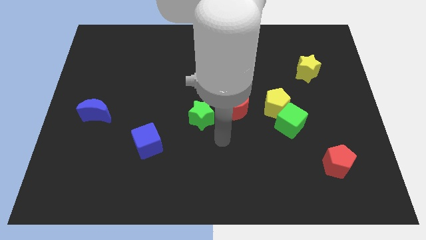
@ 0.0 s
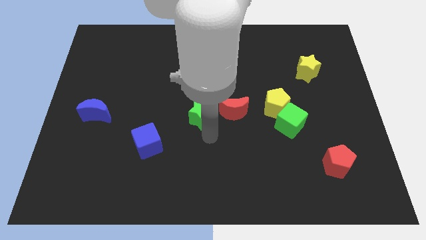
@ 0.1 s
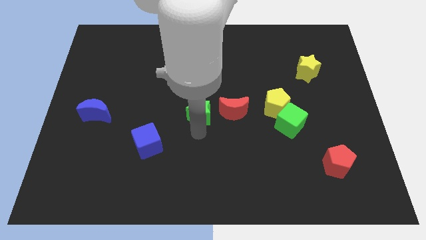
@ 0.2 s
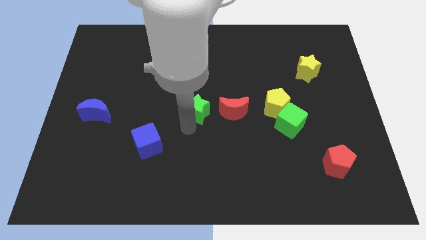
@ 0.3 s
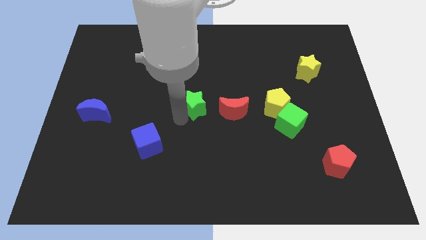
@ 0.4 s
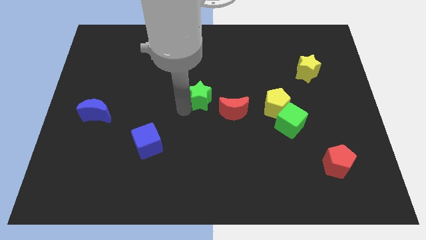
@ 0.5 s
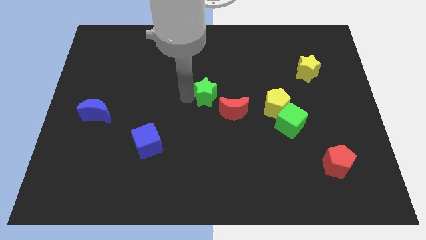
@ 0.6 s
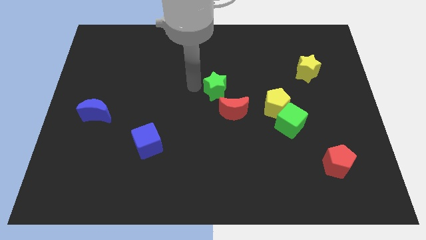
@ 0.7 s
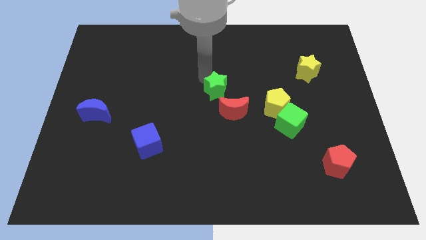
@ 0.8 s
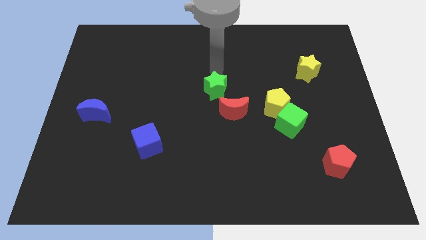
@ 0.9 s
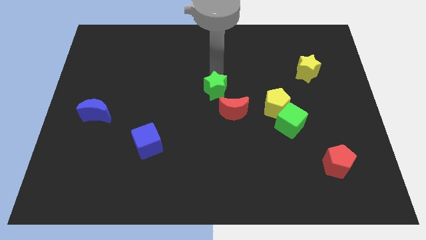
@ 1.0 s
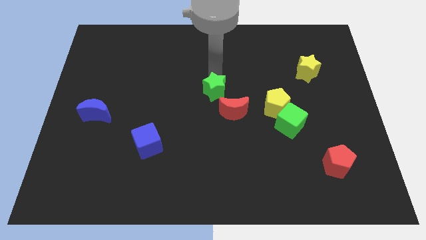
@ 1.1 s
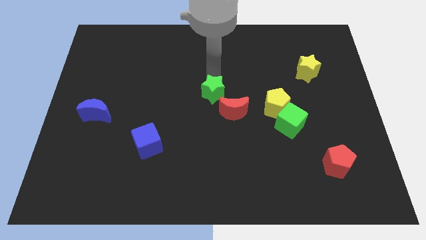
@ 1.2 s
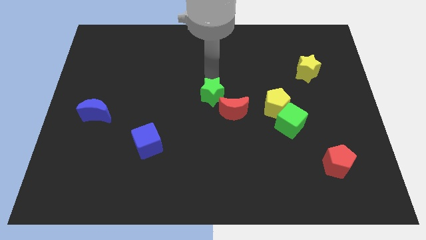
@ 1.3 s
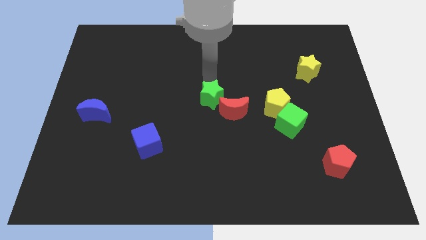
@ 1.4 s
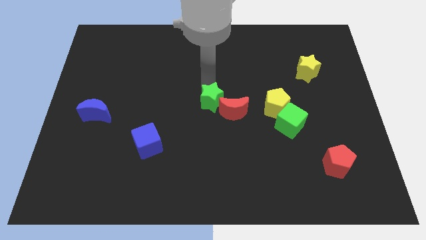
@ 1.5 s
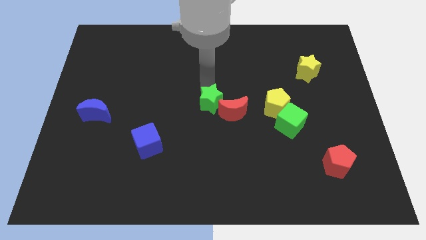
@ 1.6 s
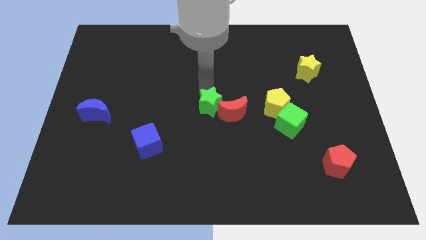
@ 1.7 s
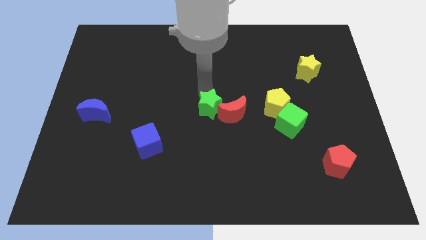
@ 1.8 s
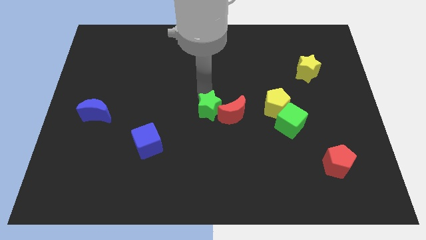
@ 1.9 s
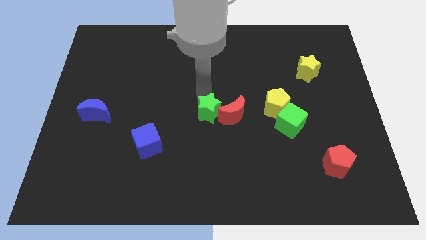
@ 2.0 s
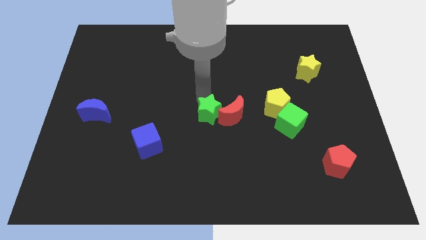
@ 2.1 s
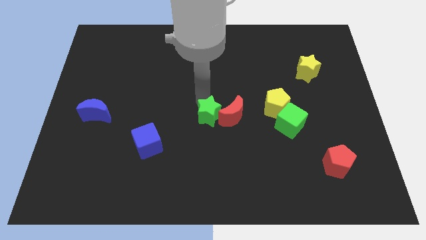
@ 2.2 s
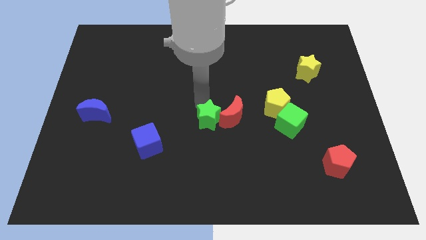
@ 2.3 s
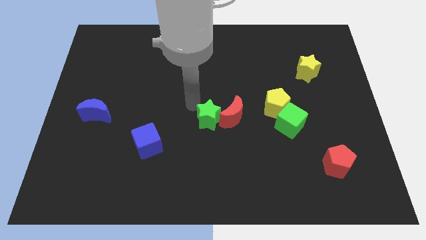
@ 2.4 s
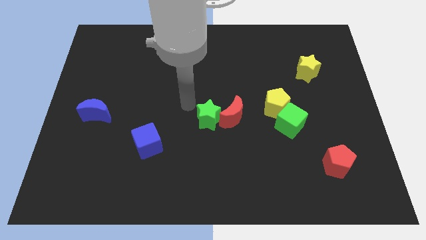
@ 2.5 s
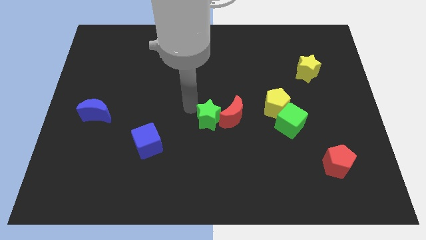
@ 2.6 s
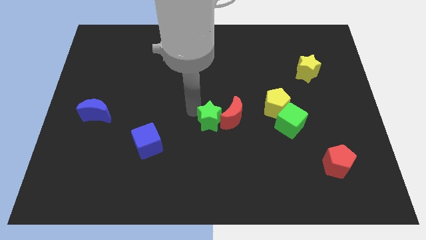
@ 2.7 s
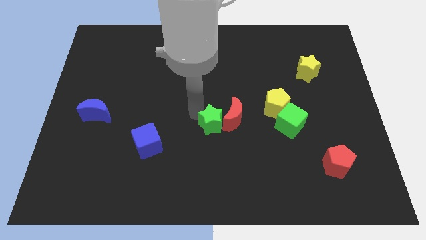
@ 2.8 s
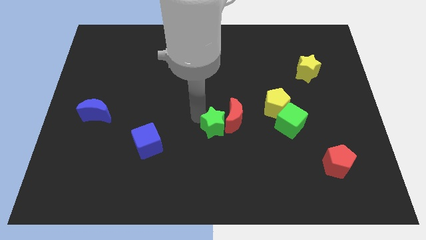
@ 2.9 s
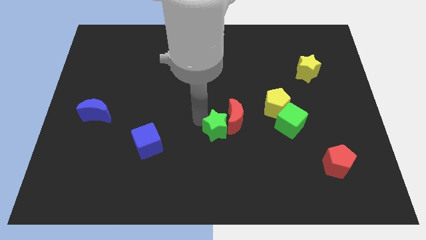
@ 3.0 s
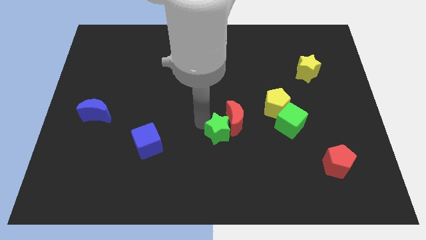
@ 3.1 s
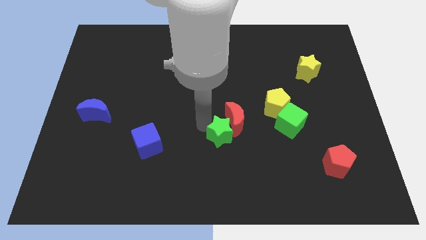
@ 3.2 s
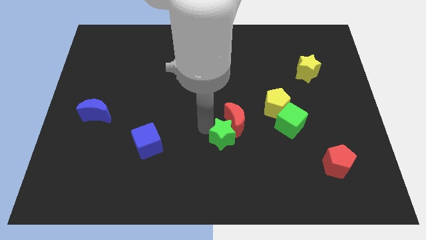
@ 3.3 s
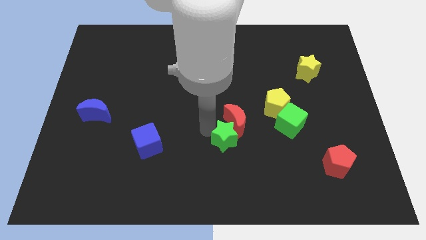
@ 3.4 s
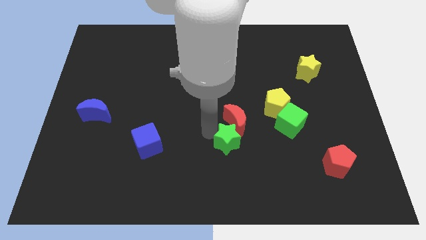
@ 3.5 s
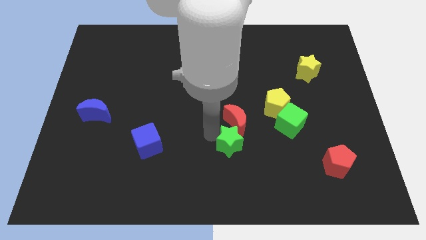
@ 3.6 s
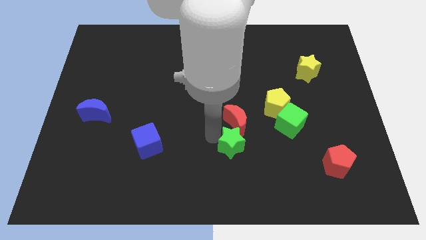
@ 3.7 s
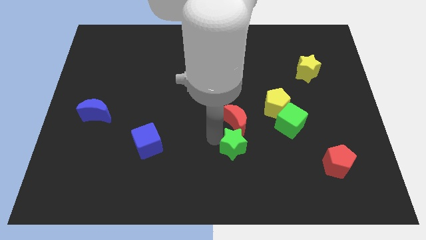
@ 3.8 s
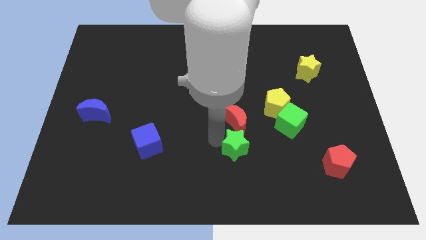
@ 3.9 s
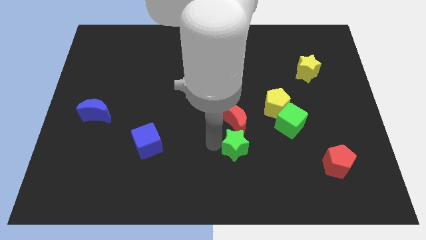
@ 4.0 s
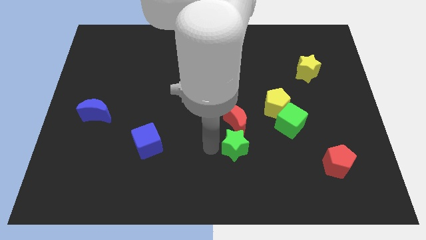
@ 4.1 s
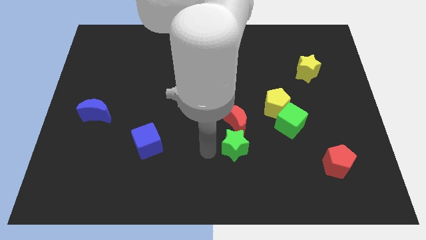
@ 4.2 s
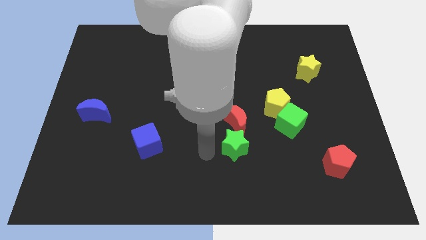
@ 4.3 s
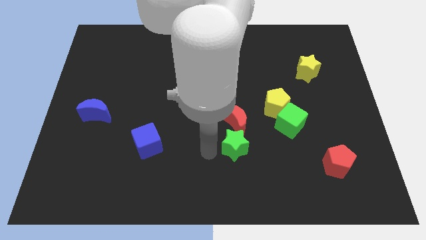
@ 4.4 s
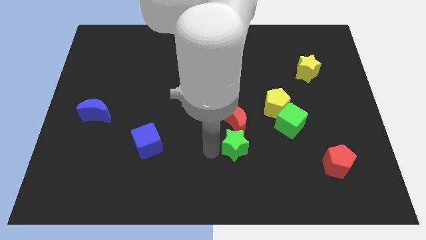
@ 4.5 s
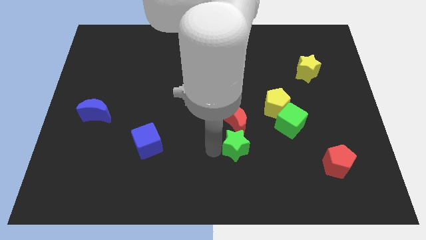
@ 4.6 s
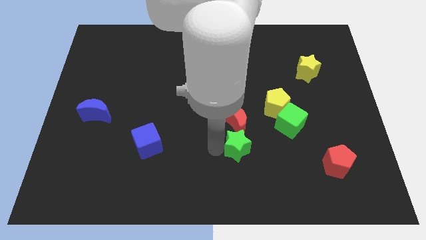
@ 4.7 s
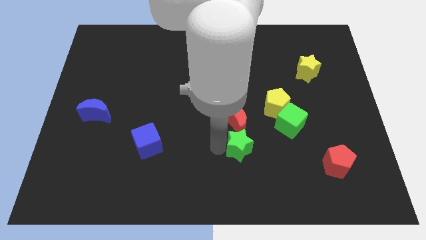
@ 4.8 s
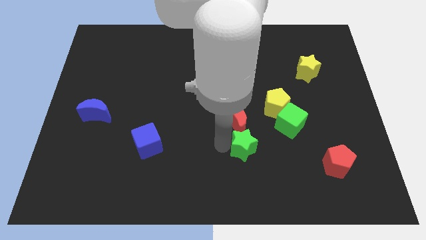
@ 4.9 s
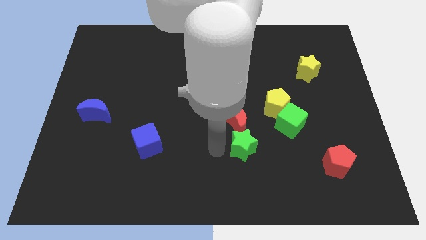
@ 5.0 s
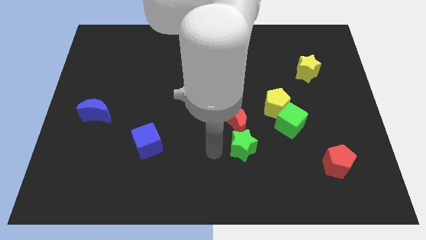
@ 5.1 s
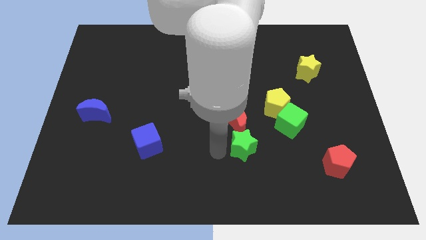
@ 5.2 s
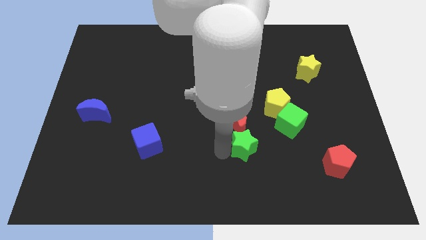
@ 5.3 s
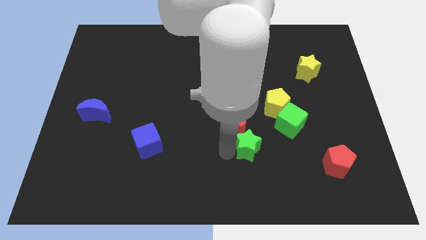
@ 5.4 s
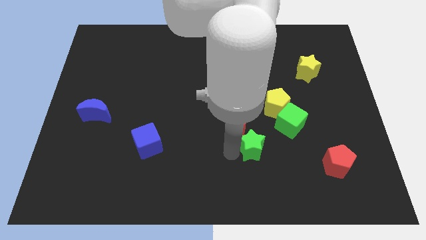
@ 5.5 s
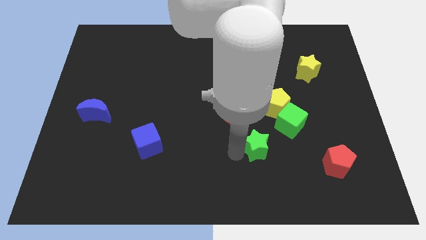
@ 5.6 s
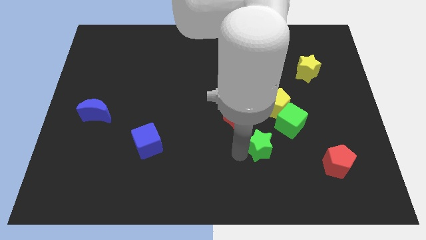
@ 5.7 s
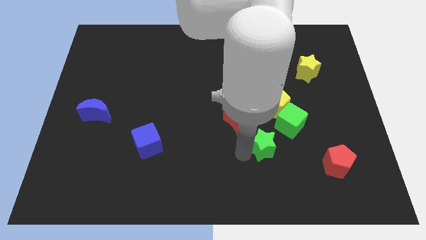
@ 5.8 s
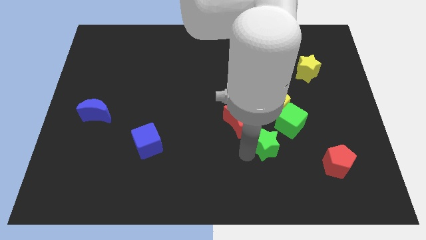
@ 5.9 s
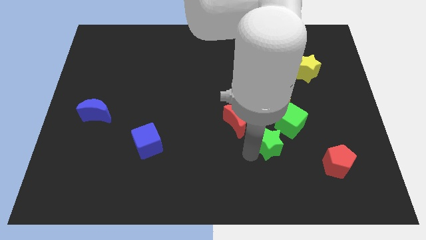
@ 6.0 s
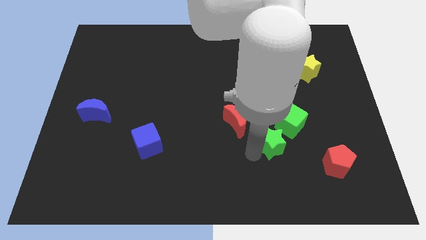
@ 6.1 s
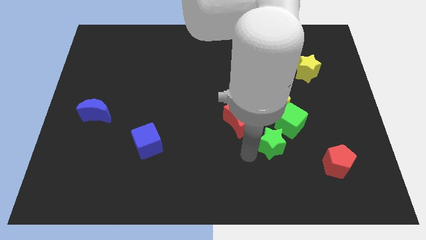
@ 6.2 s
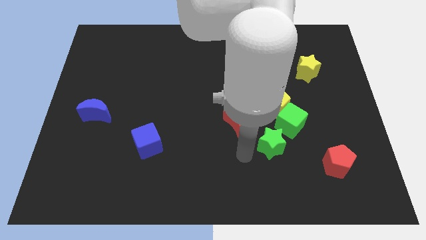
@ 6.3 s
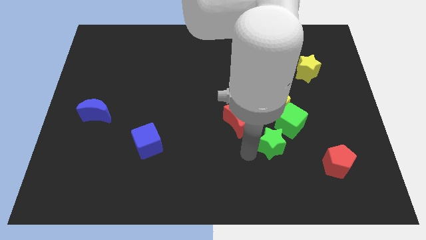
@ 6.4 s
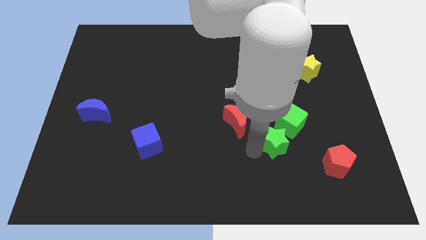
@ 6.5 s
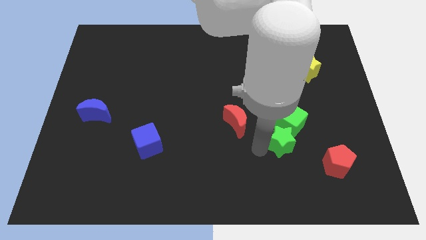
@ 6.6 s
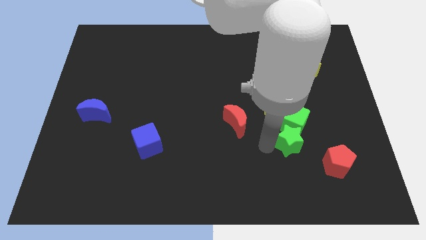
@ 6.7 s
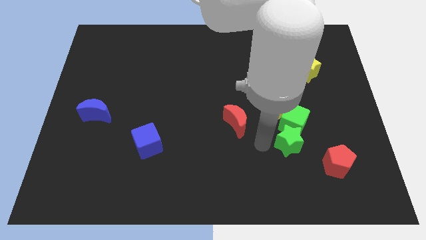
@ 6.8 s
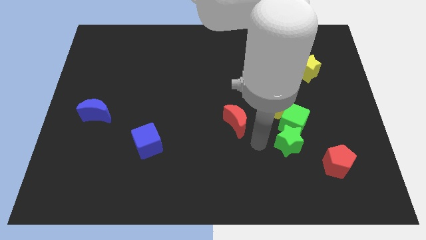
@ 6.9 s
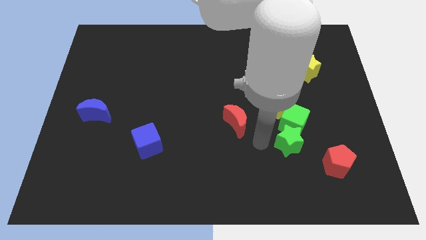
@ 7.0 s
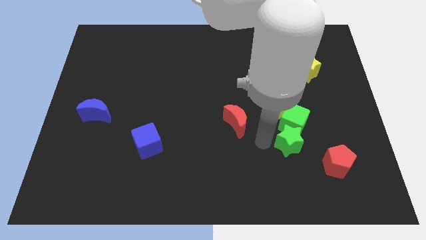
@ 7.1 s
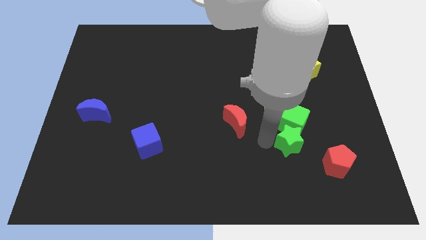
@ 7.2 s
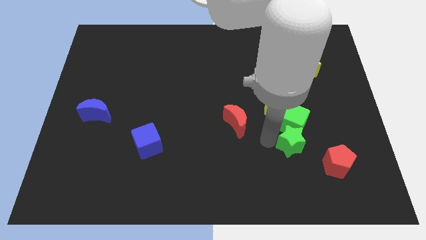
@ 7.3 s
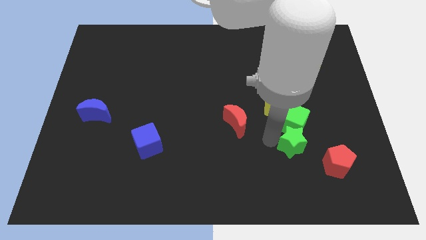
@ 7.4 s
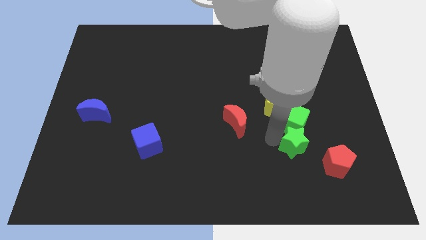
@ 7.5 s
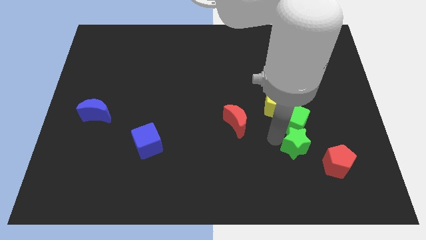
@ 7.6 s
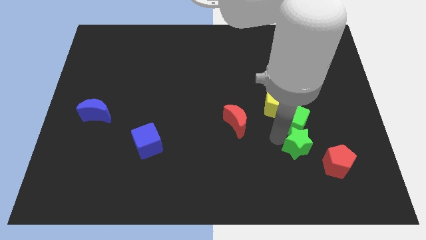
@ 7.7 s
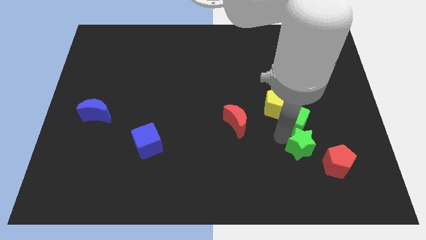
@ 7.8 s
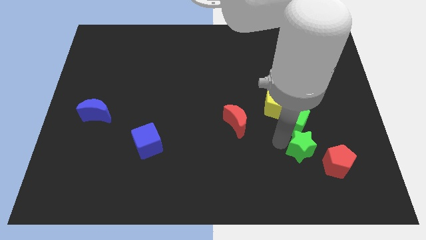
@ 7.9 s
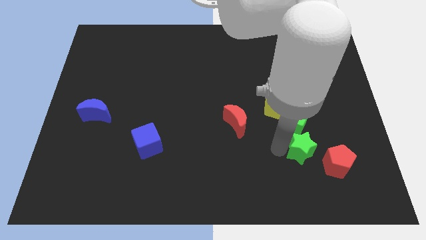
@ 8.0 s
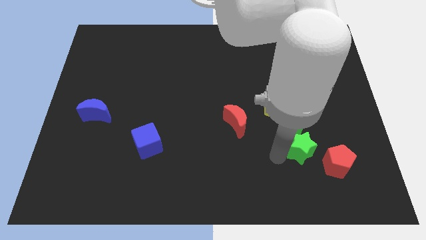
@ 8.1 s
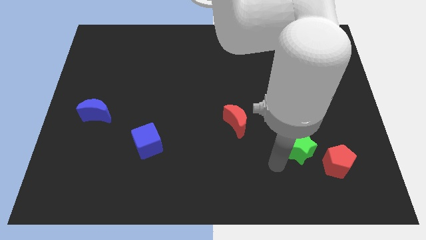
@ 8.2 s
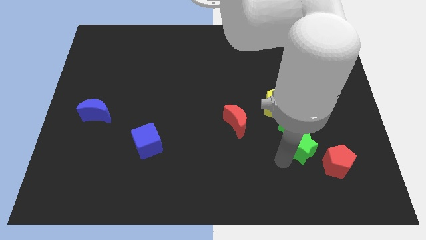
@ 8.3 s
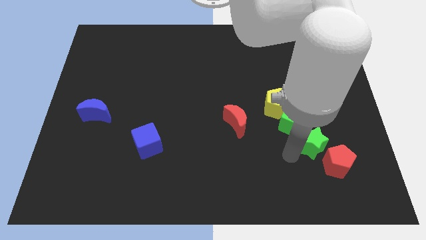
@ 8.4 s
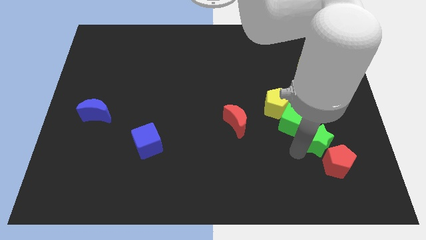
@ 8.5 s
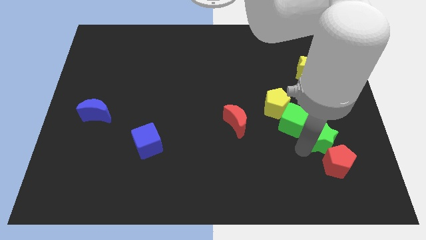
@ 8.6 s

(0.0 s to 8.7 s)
slide the green star right of the green cube
